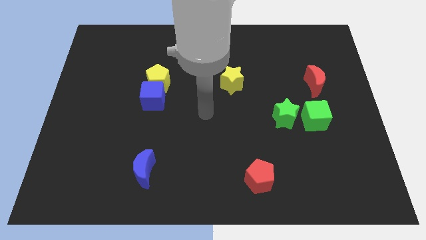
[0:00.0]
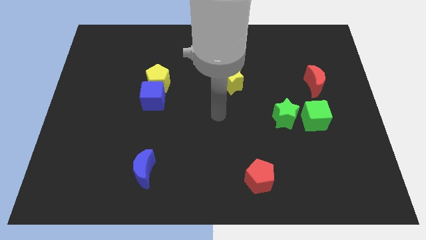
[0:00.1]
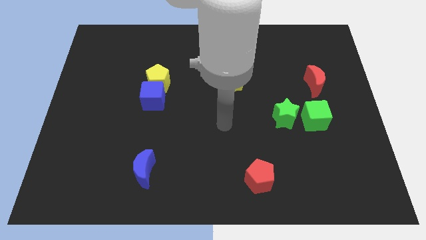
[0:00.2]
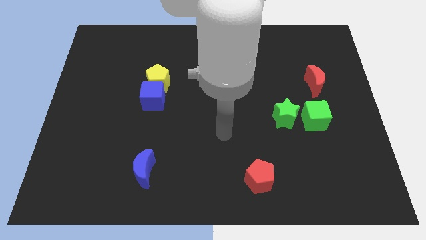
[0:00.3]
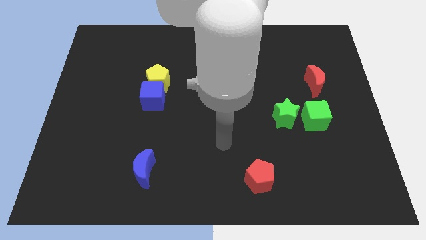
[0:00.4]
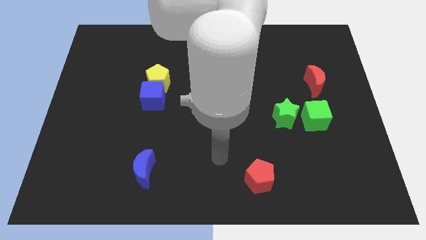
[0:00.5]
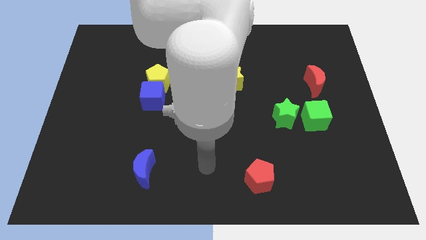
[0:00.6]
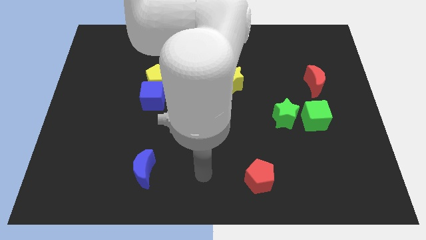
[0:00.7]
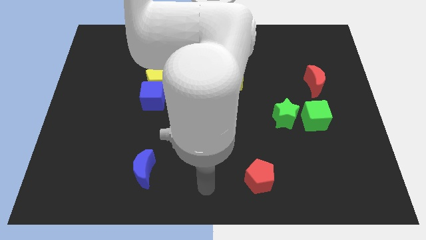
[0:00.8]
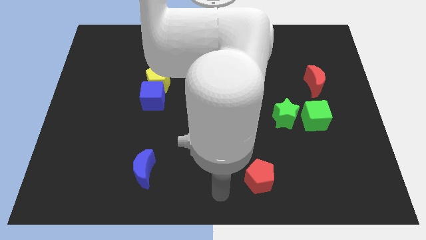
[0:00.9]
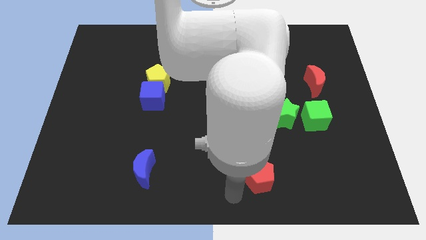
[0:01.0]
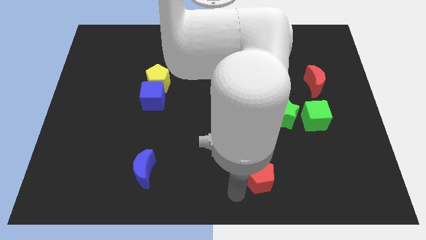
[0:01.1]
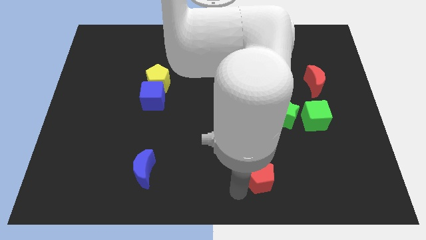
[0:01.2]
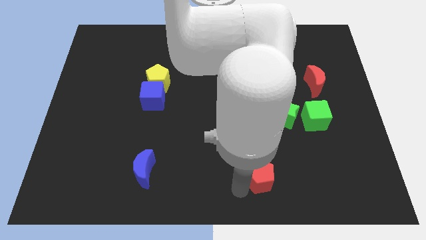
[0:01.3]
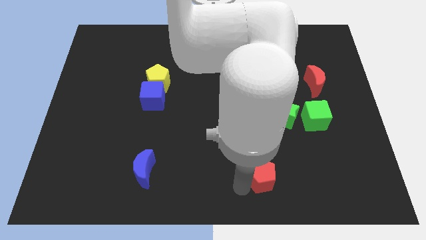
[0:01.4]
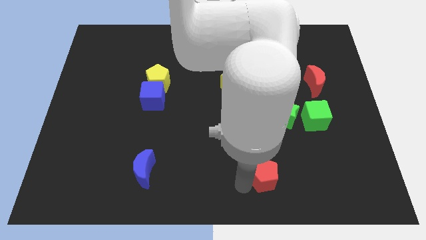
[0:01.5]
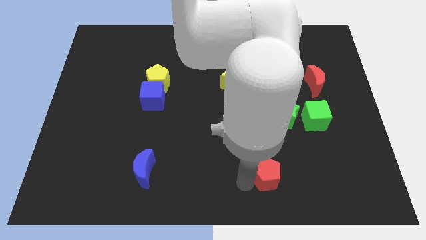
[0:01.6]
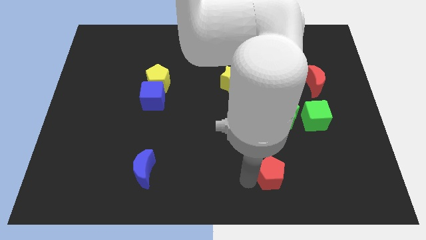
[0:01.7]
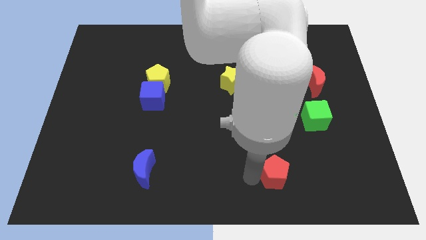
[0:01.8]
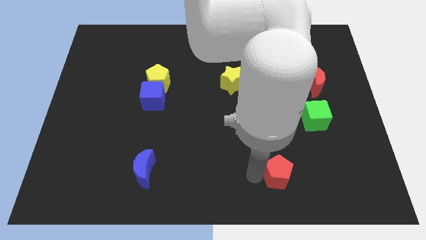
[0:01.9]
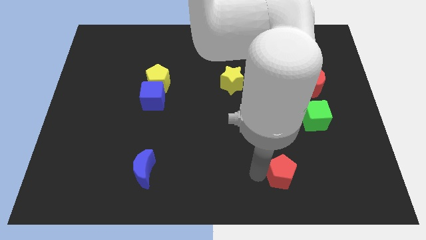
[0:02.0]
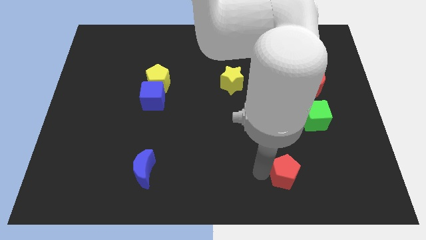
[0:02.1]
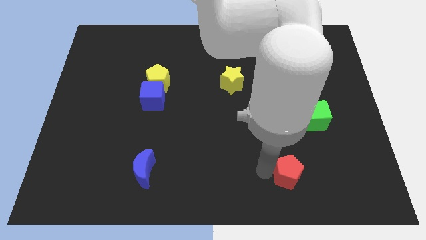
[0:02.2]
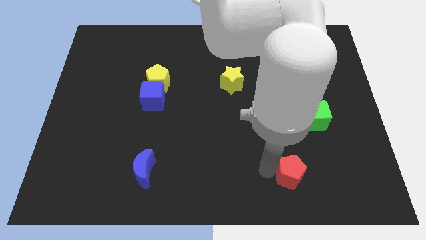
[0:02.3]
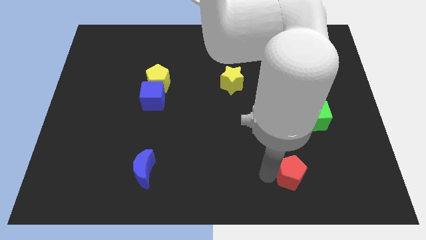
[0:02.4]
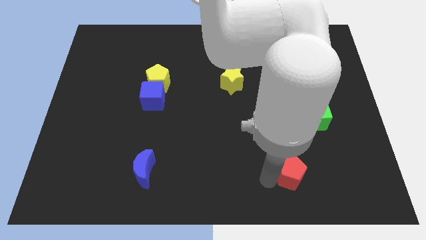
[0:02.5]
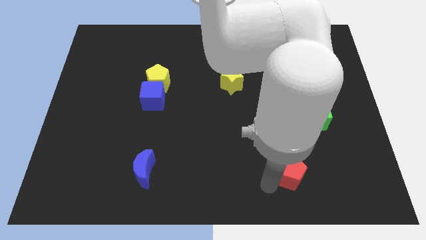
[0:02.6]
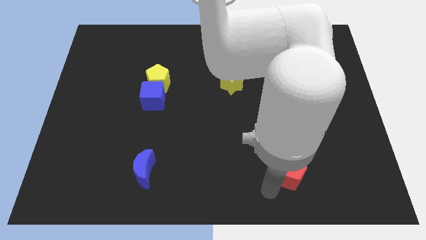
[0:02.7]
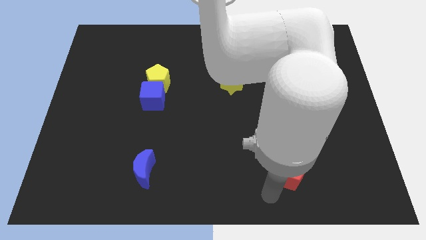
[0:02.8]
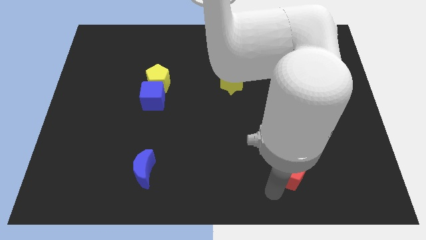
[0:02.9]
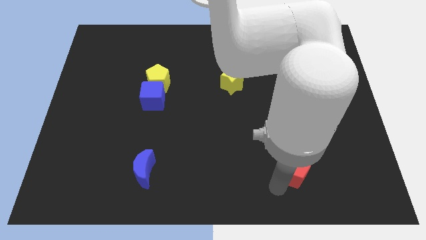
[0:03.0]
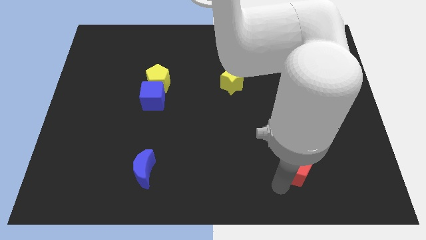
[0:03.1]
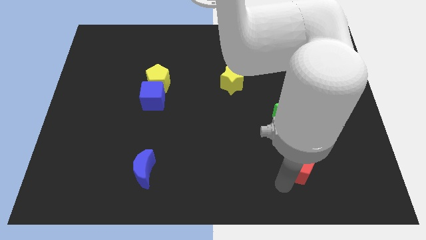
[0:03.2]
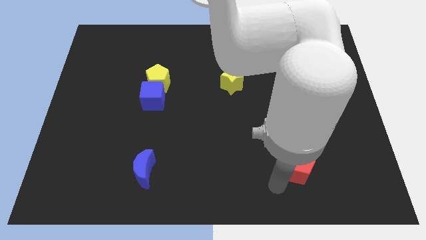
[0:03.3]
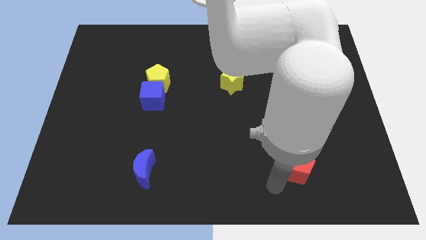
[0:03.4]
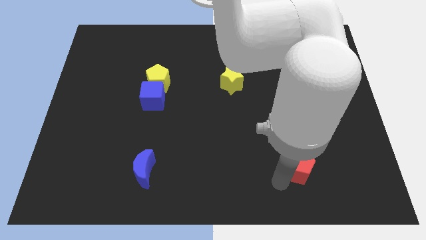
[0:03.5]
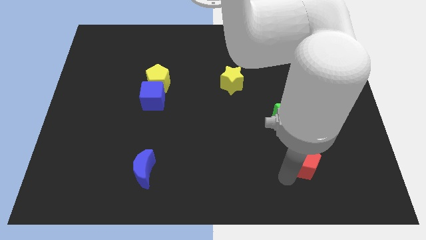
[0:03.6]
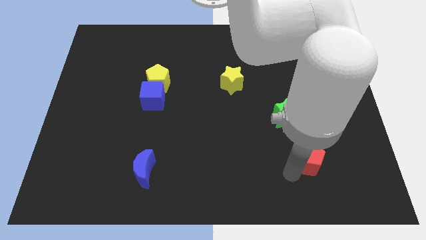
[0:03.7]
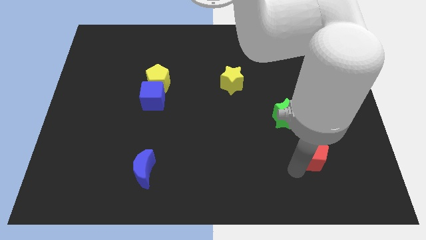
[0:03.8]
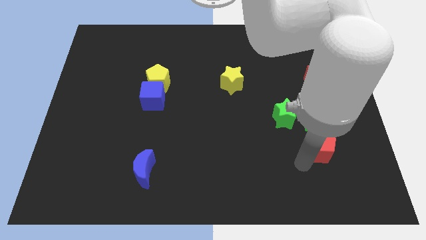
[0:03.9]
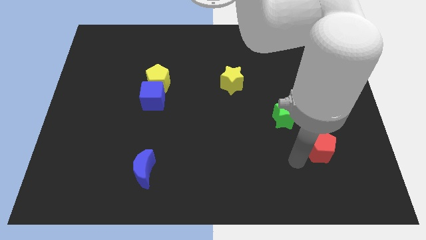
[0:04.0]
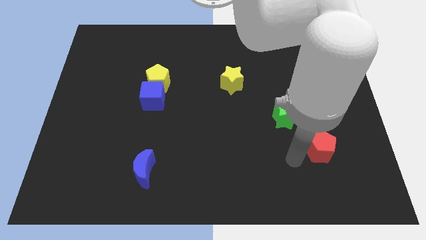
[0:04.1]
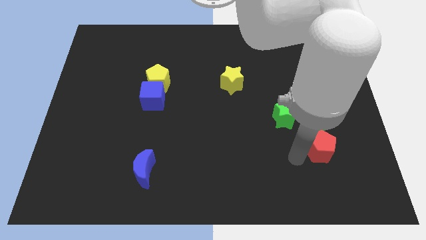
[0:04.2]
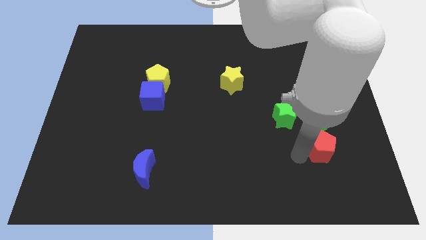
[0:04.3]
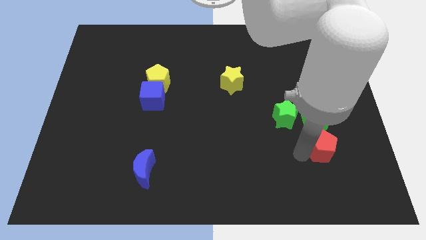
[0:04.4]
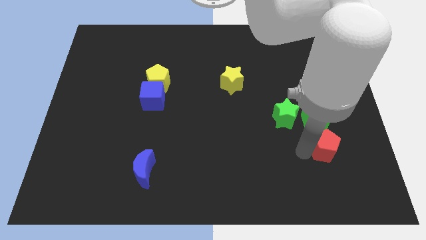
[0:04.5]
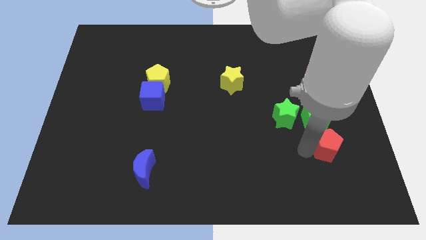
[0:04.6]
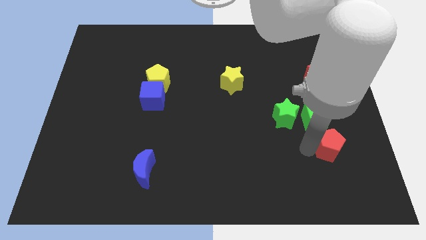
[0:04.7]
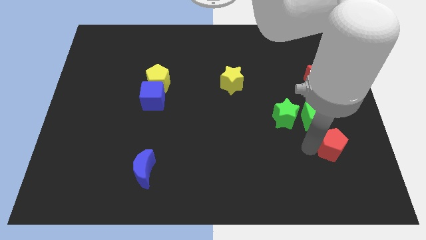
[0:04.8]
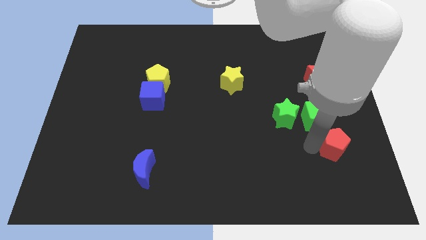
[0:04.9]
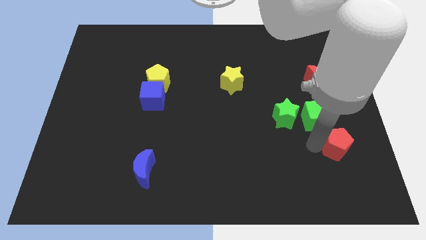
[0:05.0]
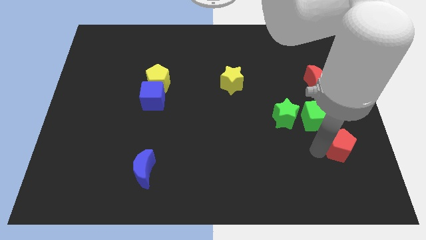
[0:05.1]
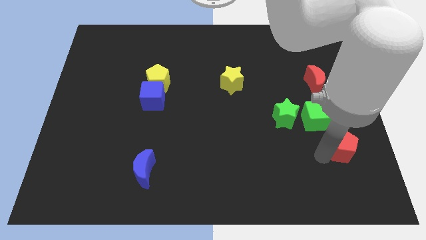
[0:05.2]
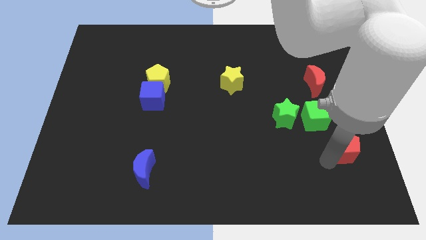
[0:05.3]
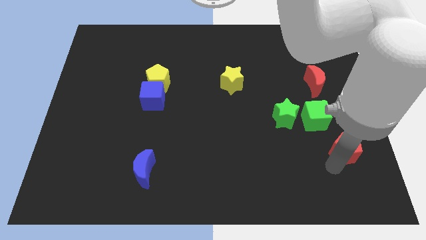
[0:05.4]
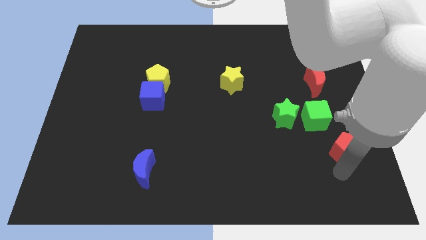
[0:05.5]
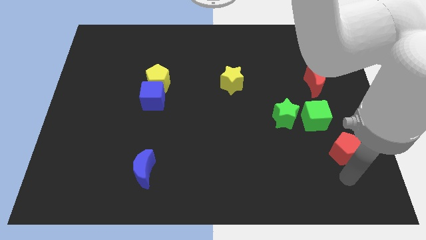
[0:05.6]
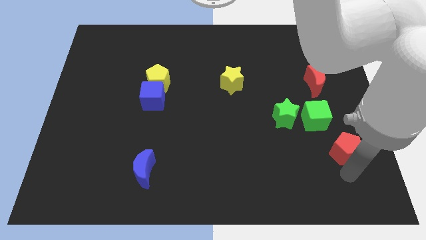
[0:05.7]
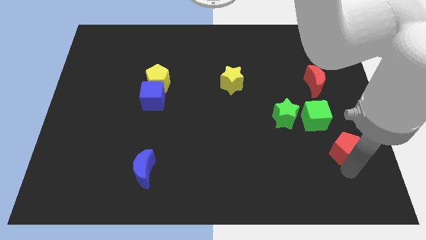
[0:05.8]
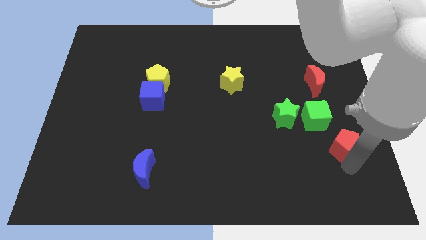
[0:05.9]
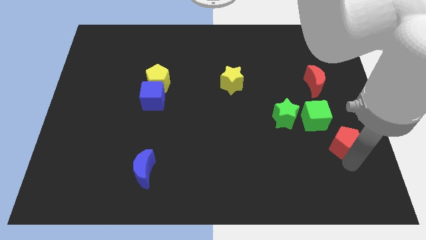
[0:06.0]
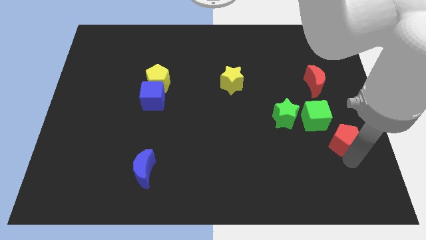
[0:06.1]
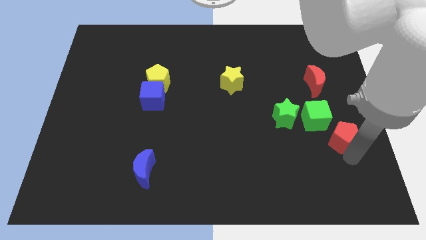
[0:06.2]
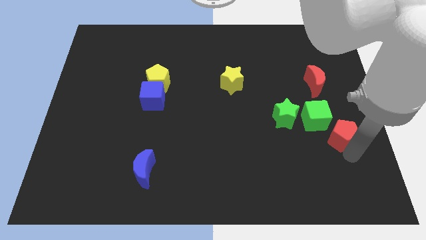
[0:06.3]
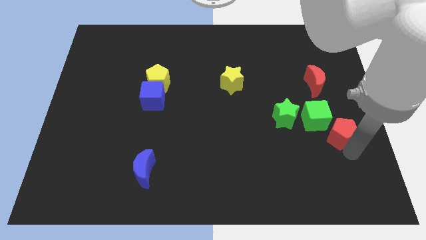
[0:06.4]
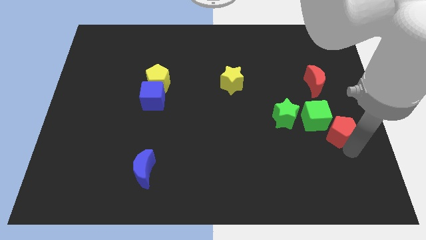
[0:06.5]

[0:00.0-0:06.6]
slide the red pentagon to the right side of the board
